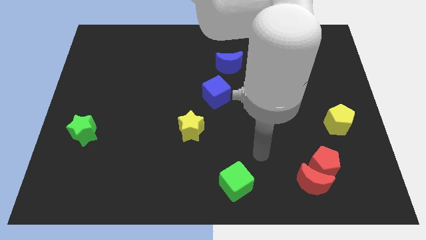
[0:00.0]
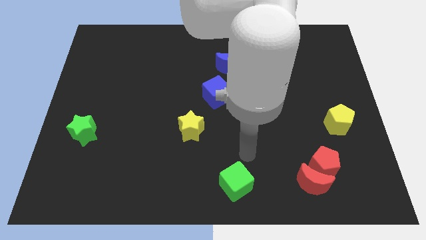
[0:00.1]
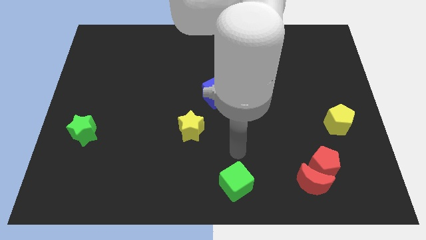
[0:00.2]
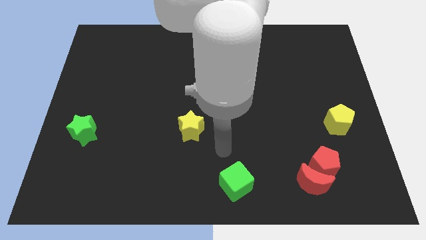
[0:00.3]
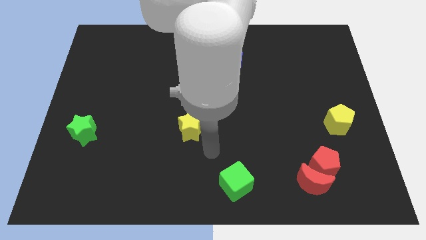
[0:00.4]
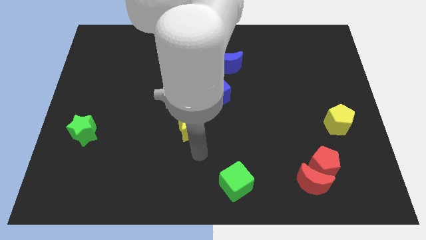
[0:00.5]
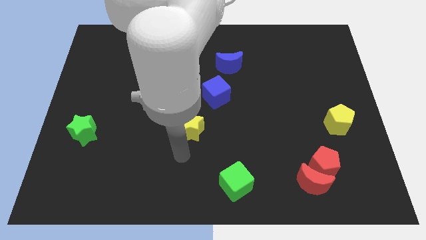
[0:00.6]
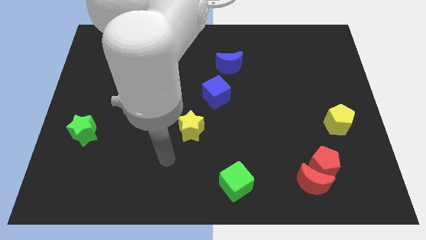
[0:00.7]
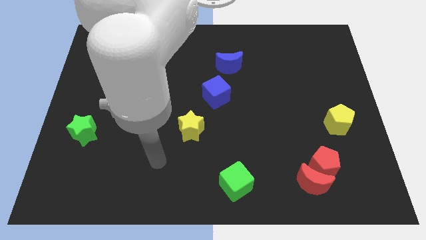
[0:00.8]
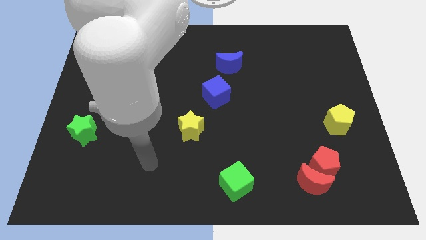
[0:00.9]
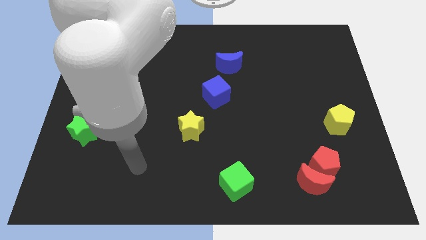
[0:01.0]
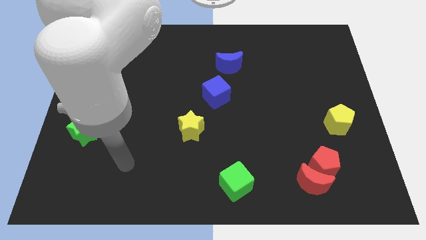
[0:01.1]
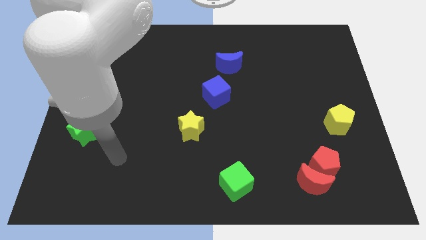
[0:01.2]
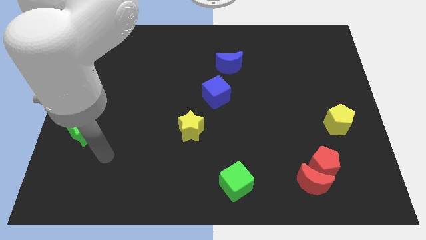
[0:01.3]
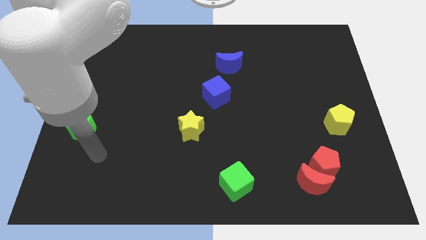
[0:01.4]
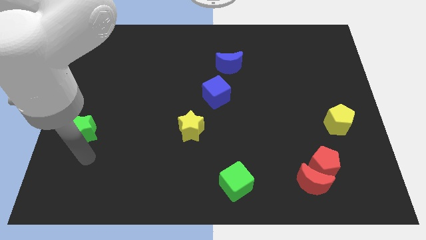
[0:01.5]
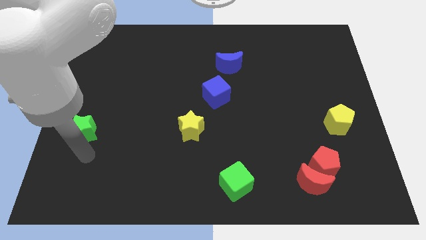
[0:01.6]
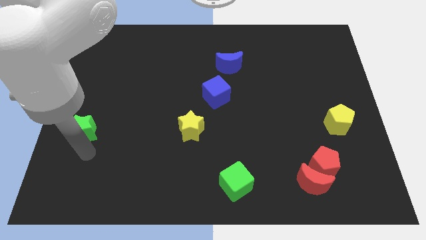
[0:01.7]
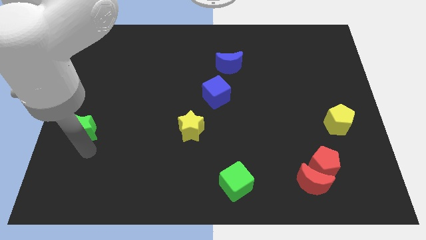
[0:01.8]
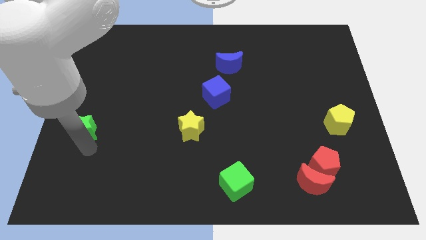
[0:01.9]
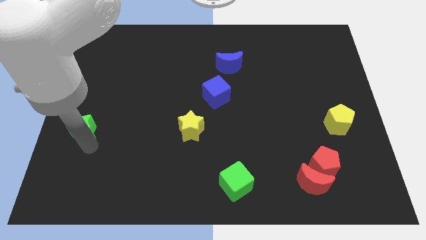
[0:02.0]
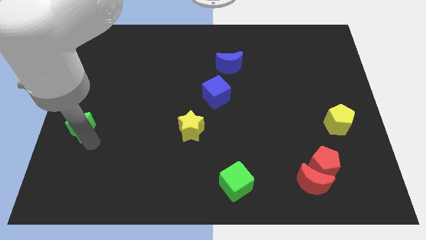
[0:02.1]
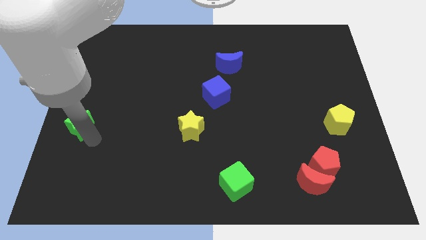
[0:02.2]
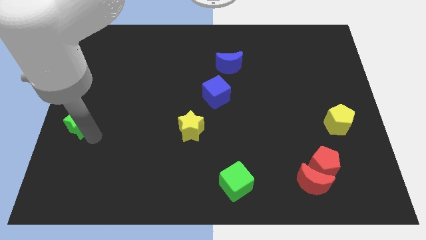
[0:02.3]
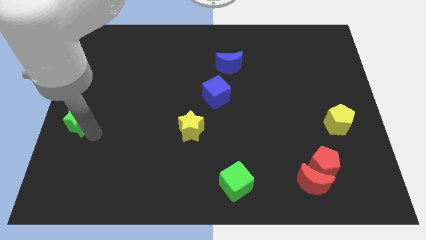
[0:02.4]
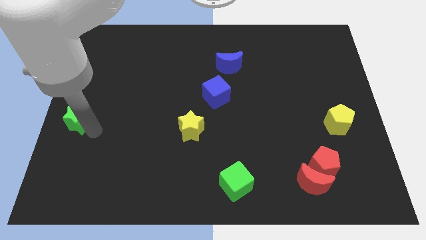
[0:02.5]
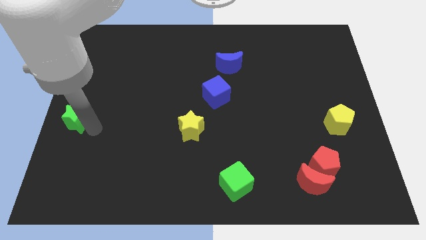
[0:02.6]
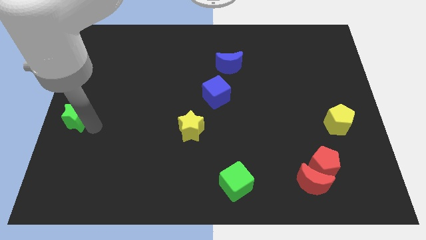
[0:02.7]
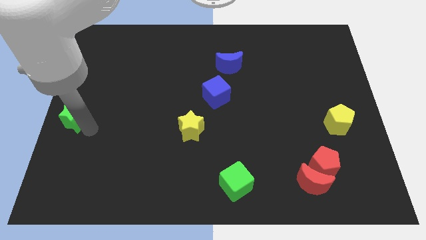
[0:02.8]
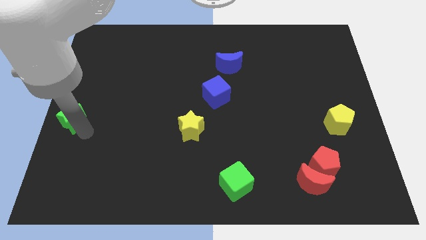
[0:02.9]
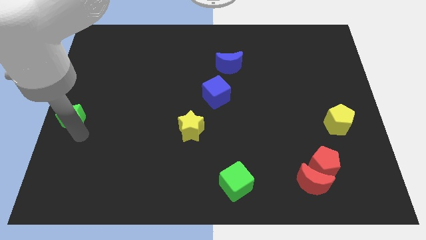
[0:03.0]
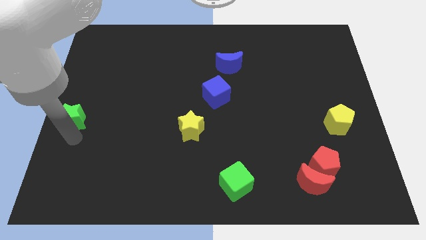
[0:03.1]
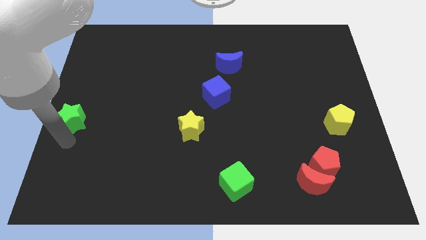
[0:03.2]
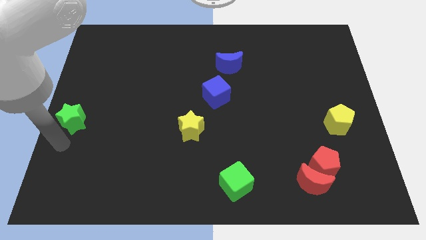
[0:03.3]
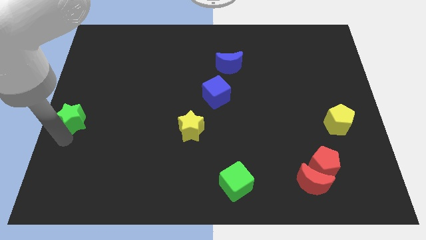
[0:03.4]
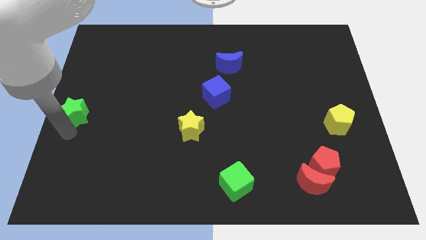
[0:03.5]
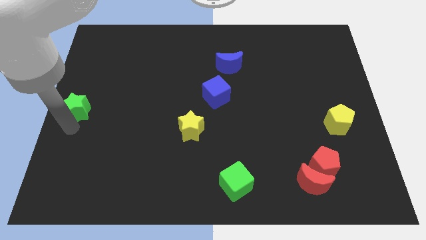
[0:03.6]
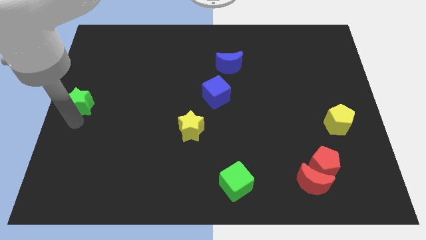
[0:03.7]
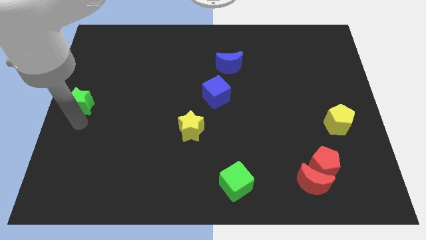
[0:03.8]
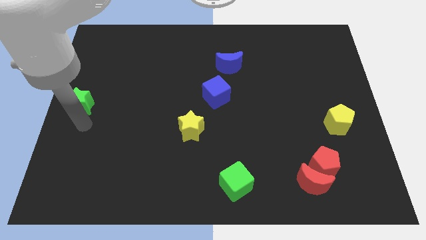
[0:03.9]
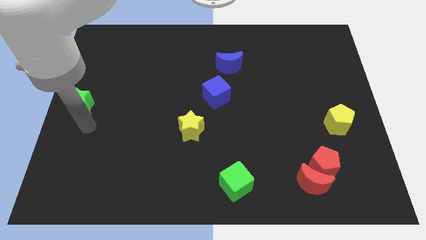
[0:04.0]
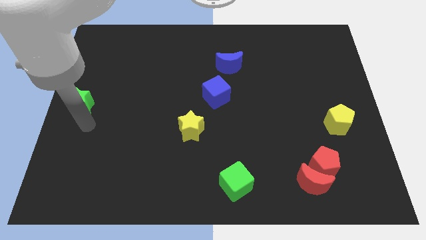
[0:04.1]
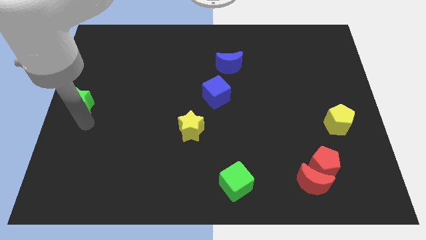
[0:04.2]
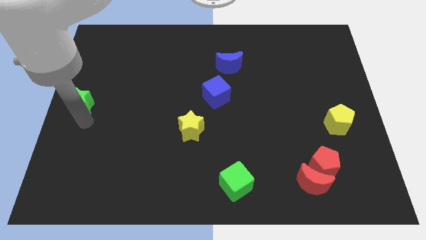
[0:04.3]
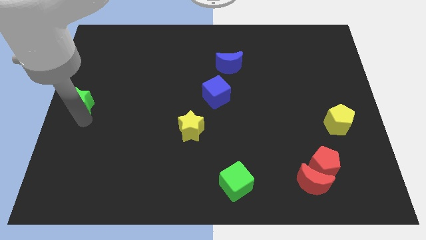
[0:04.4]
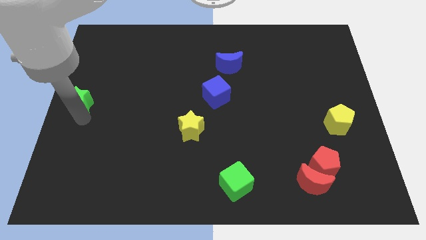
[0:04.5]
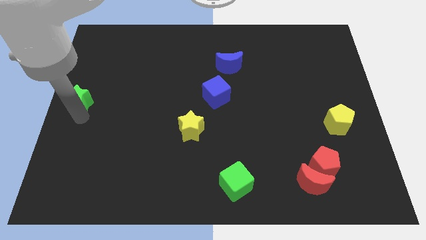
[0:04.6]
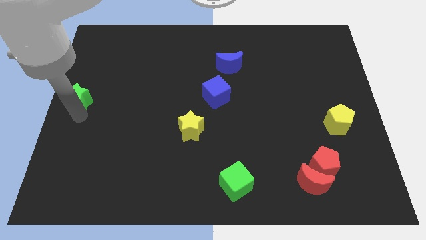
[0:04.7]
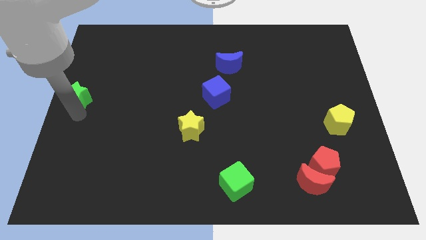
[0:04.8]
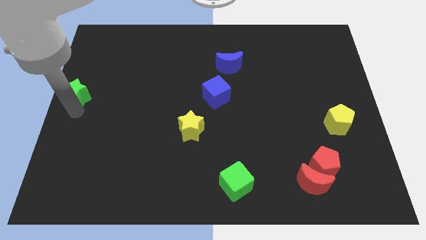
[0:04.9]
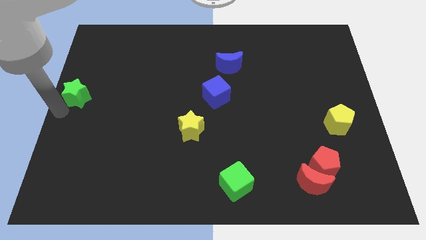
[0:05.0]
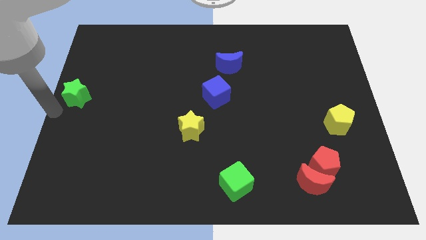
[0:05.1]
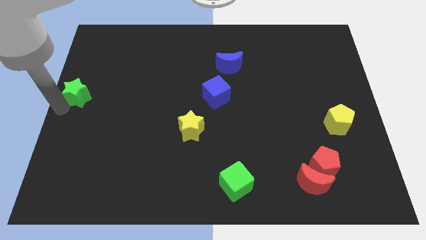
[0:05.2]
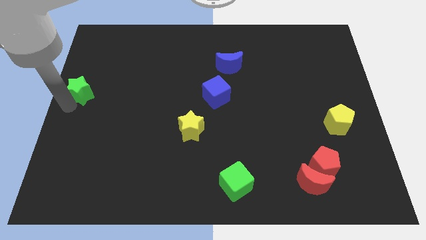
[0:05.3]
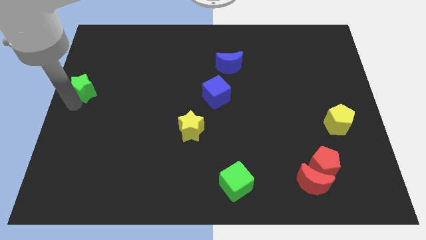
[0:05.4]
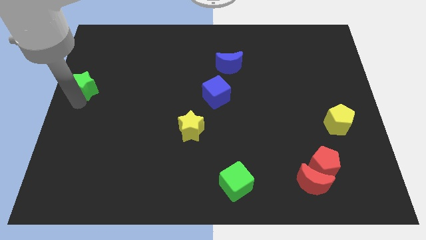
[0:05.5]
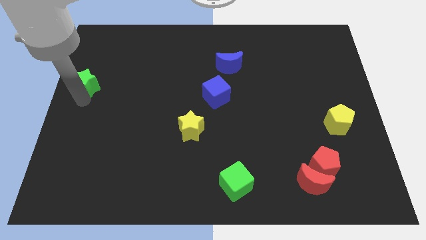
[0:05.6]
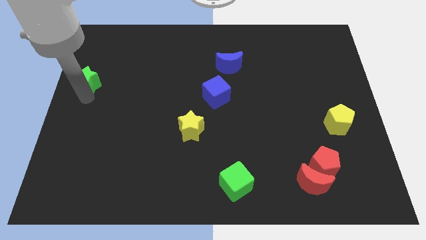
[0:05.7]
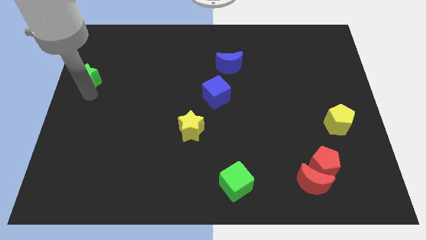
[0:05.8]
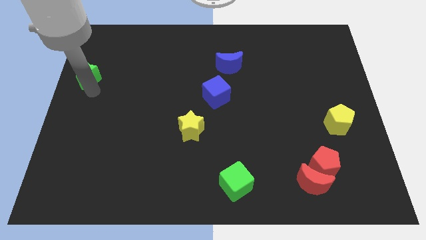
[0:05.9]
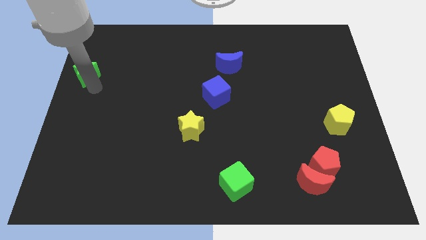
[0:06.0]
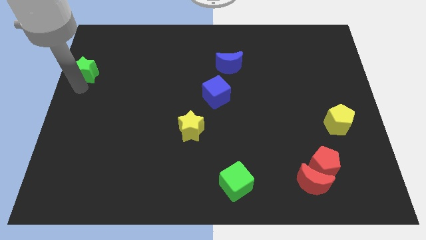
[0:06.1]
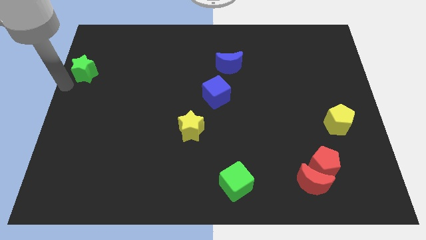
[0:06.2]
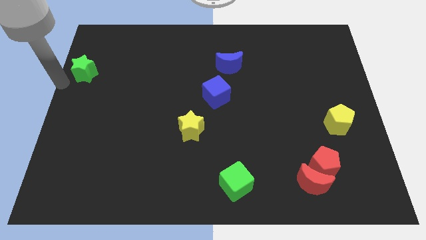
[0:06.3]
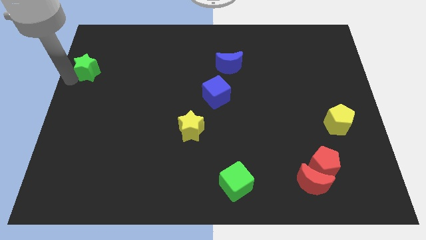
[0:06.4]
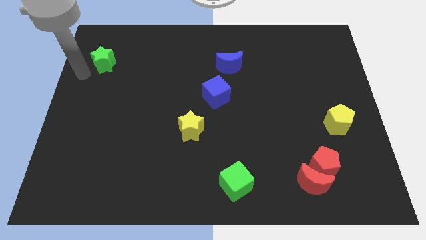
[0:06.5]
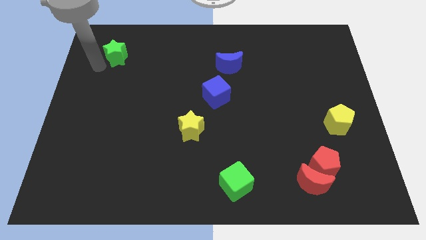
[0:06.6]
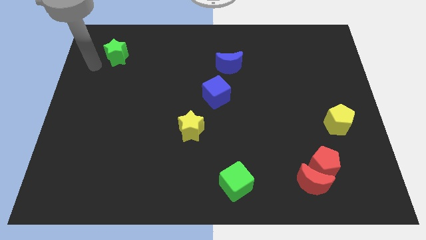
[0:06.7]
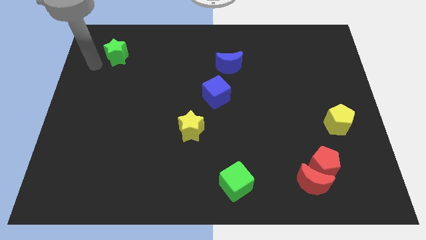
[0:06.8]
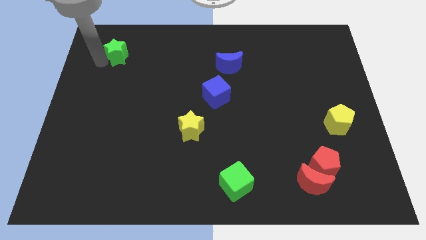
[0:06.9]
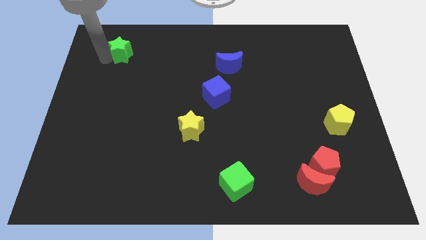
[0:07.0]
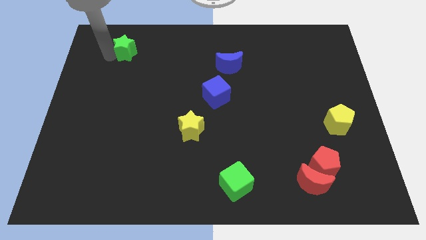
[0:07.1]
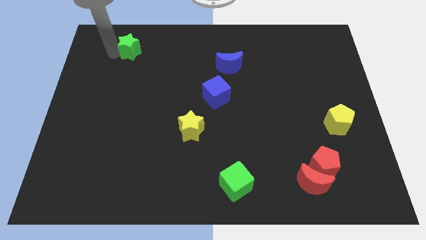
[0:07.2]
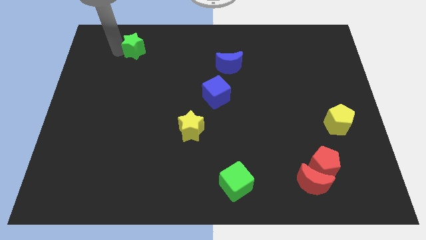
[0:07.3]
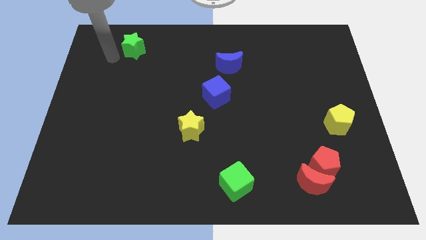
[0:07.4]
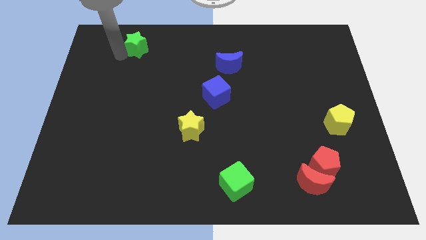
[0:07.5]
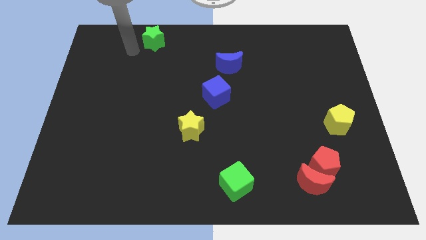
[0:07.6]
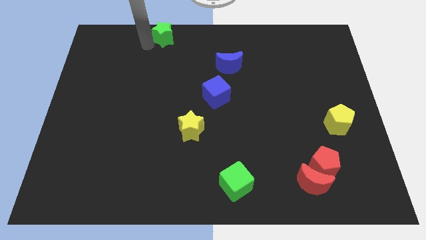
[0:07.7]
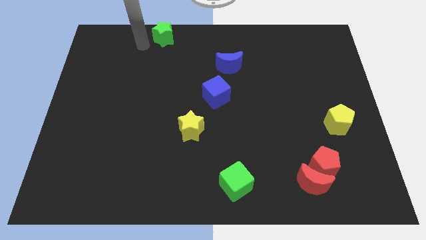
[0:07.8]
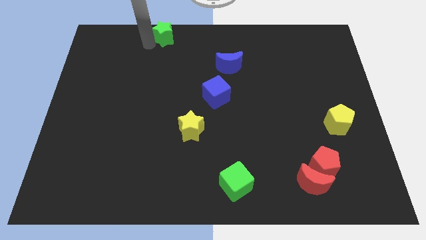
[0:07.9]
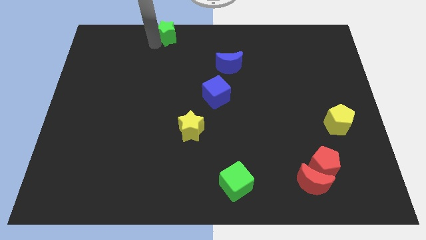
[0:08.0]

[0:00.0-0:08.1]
put the green star to the towards your base

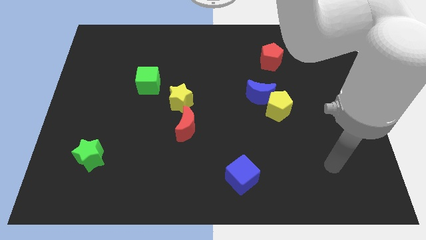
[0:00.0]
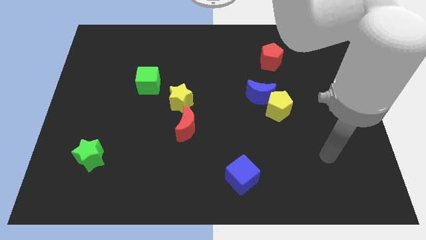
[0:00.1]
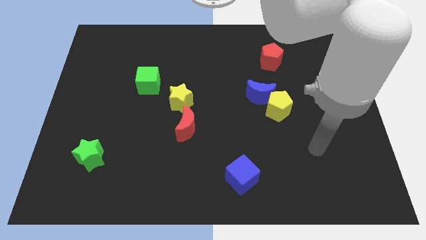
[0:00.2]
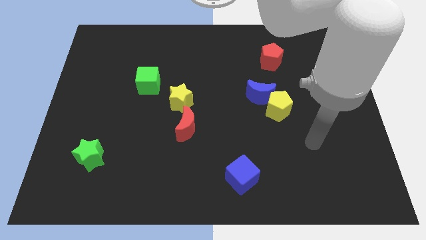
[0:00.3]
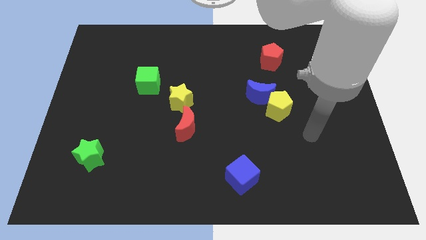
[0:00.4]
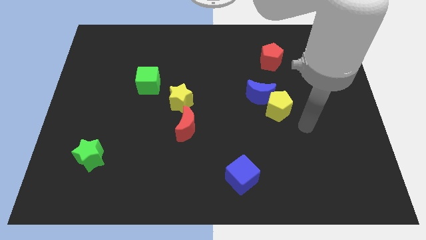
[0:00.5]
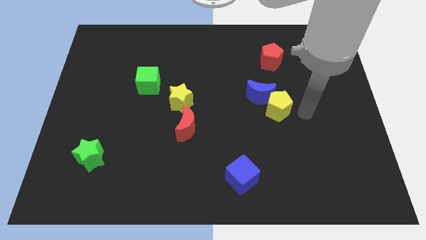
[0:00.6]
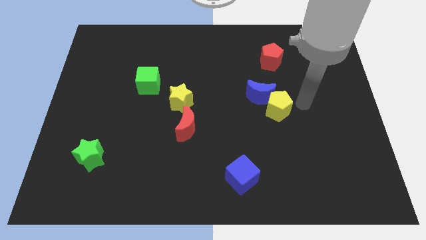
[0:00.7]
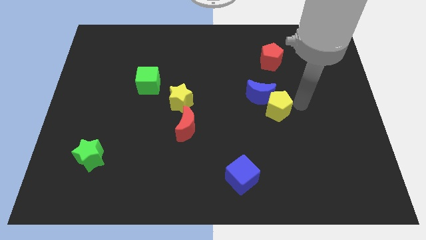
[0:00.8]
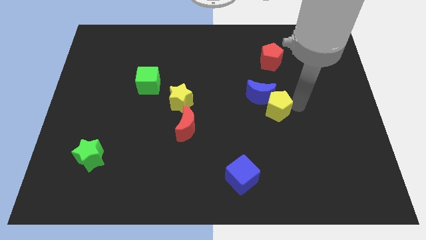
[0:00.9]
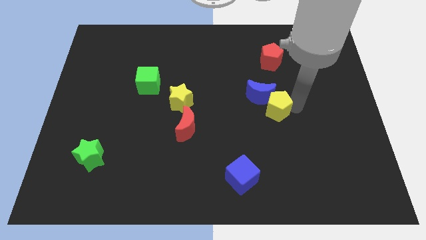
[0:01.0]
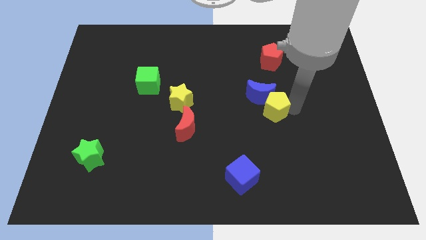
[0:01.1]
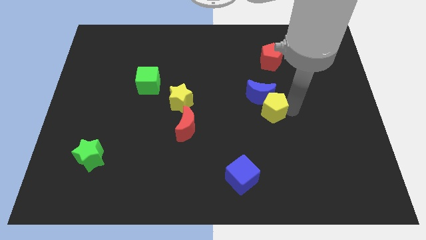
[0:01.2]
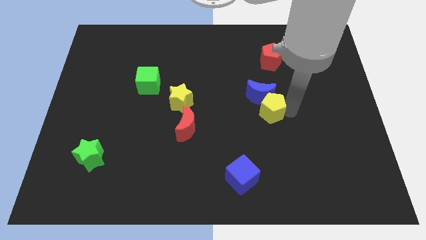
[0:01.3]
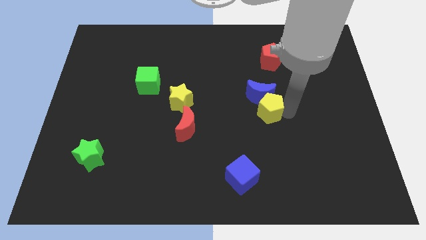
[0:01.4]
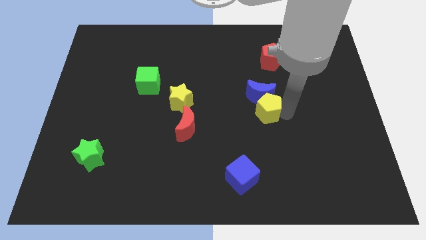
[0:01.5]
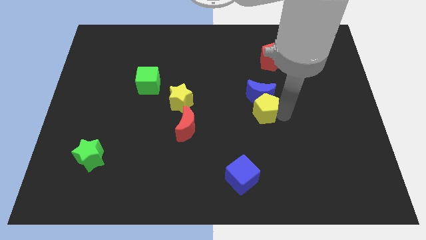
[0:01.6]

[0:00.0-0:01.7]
move the yellow pentagon to the center
